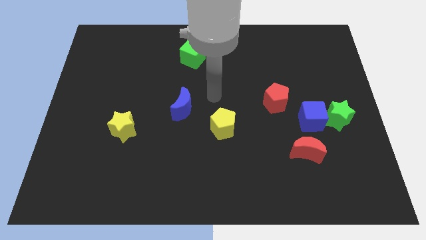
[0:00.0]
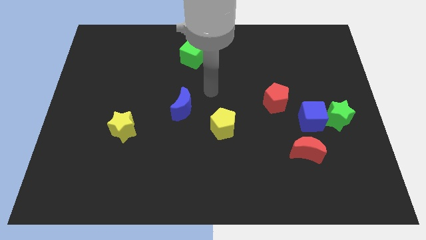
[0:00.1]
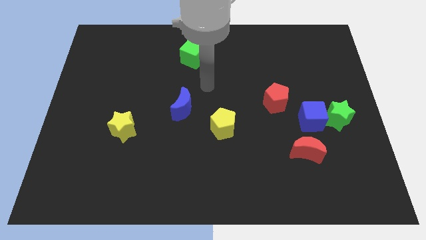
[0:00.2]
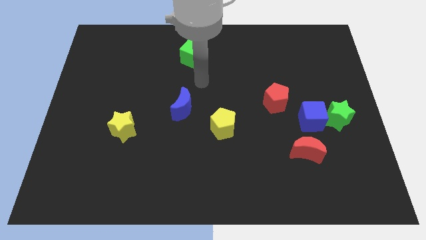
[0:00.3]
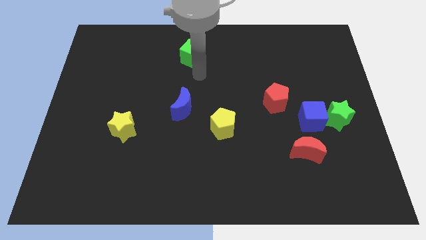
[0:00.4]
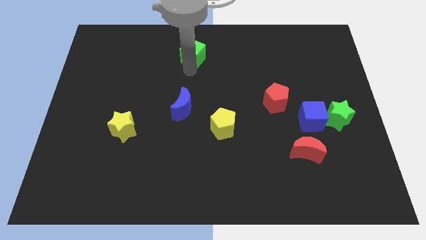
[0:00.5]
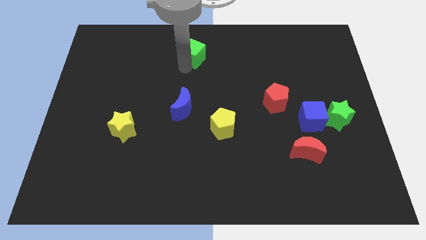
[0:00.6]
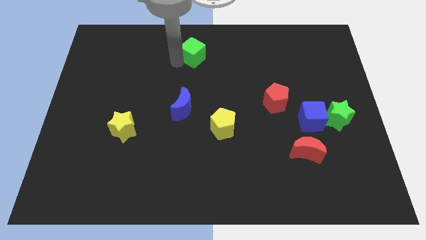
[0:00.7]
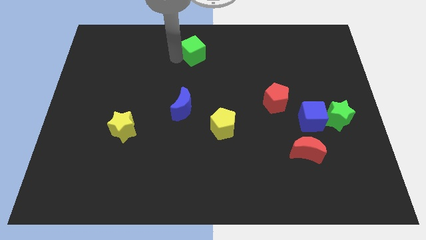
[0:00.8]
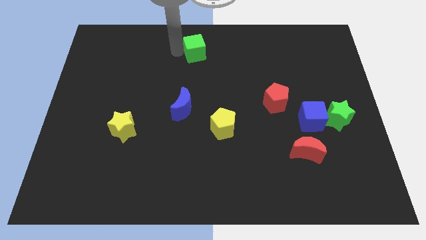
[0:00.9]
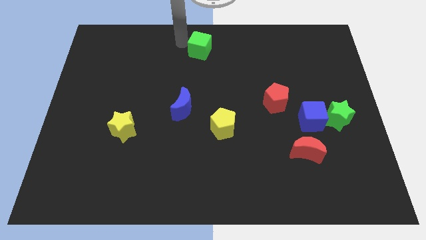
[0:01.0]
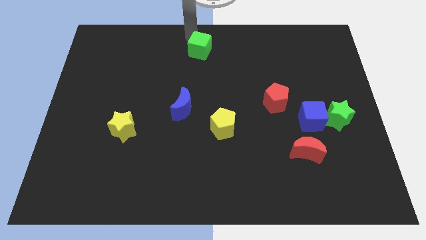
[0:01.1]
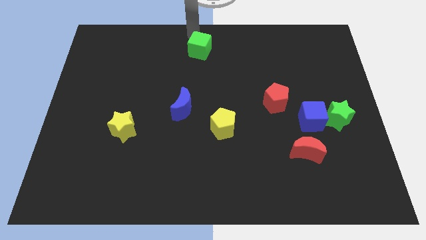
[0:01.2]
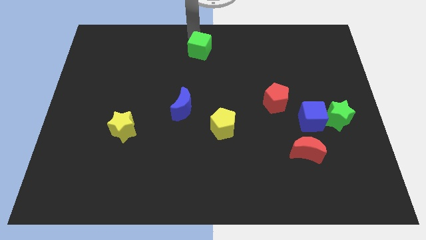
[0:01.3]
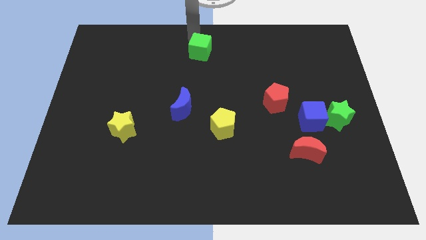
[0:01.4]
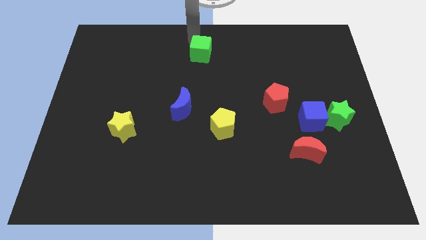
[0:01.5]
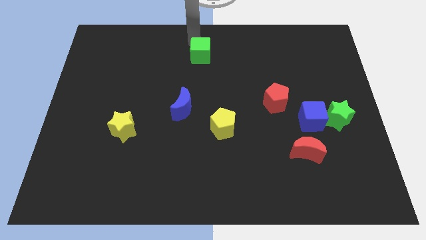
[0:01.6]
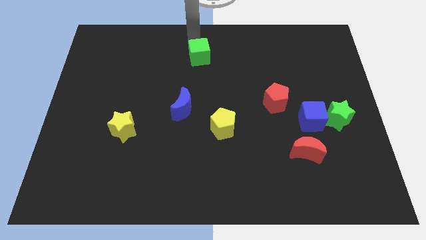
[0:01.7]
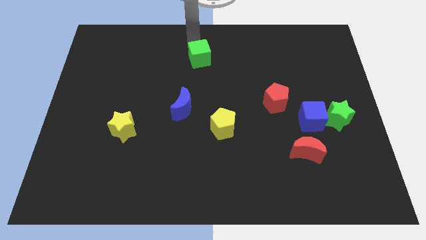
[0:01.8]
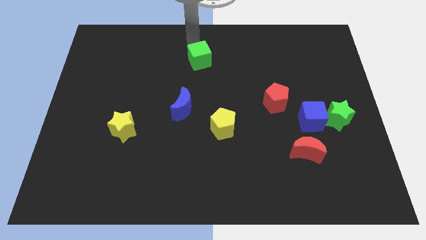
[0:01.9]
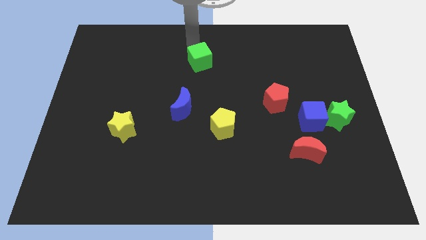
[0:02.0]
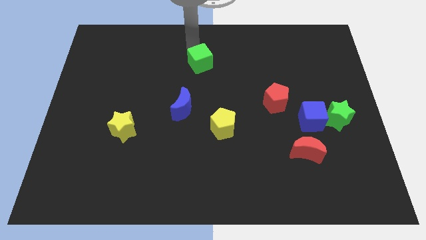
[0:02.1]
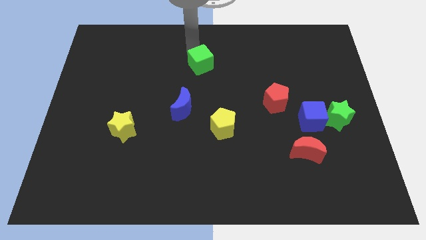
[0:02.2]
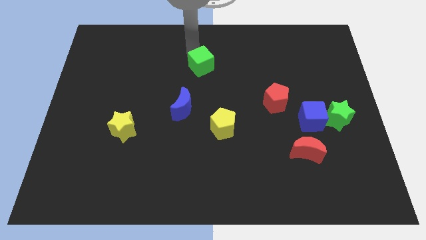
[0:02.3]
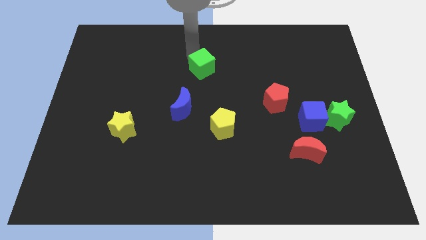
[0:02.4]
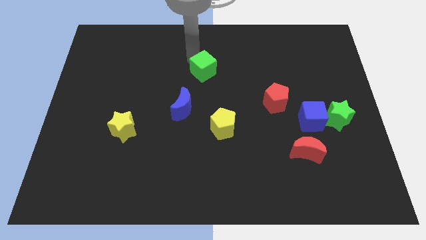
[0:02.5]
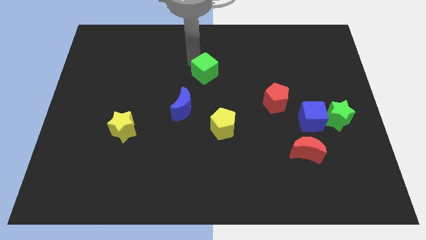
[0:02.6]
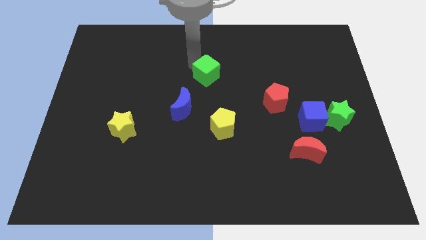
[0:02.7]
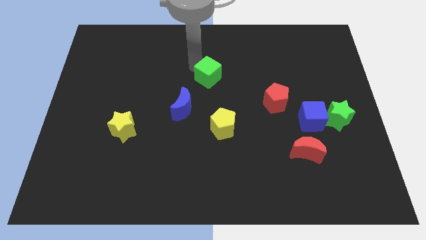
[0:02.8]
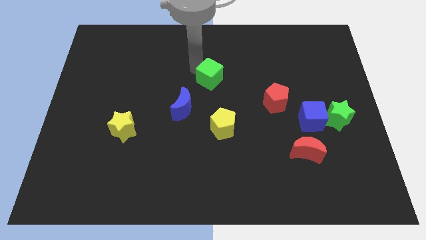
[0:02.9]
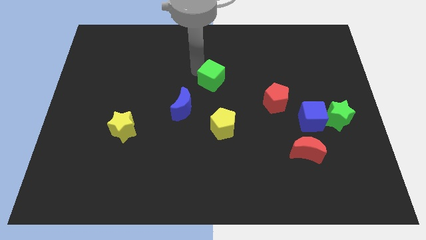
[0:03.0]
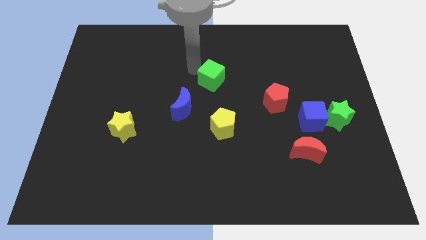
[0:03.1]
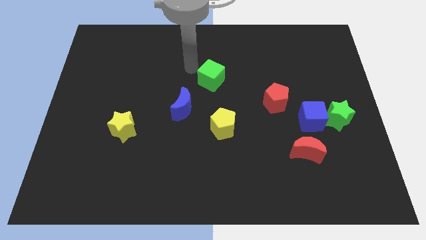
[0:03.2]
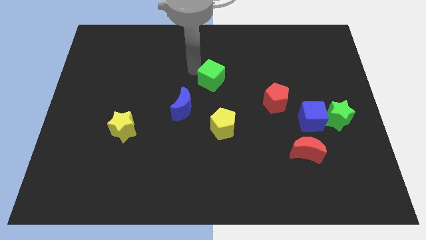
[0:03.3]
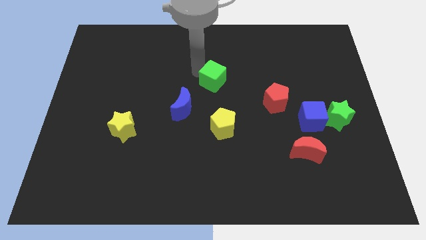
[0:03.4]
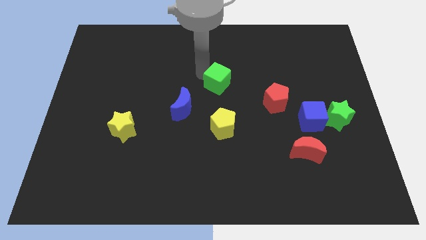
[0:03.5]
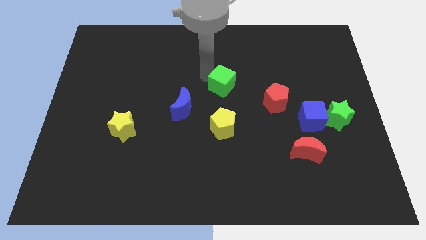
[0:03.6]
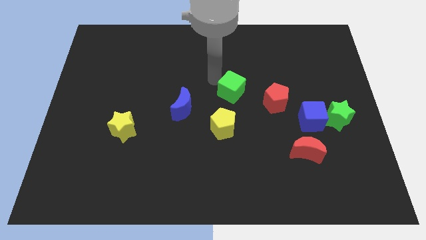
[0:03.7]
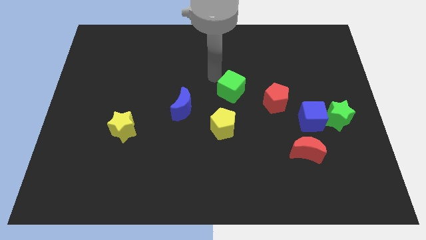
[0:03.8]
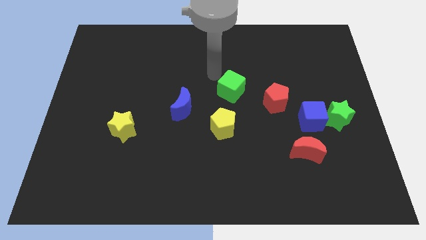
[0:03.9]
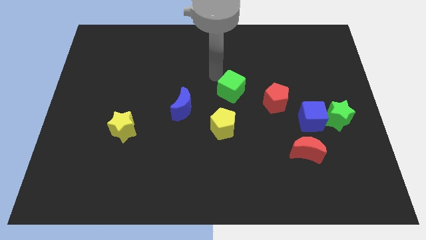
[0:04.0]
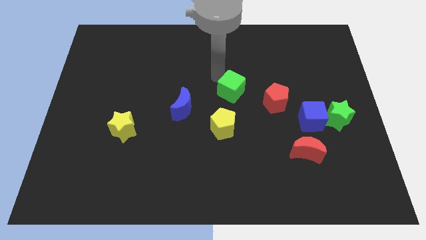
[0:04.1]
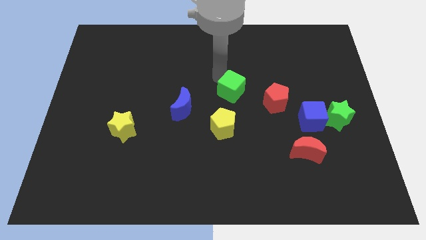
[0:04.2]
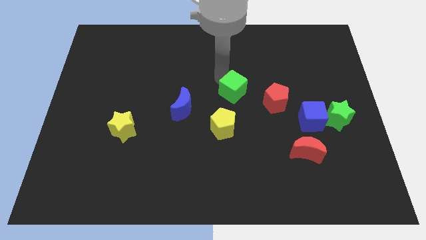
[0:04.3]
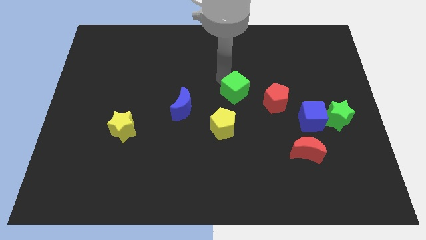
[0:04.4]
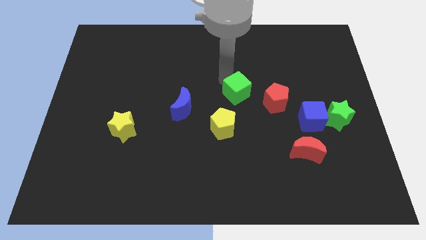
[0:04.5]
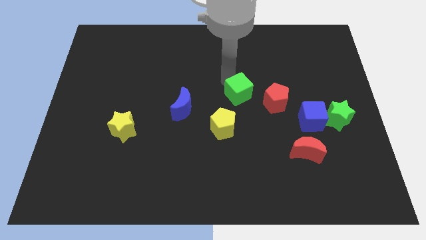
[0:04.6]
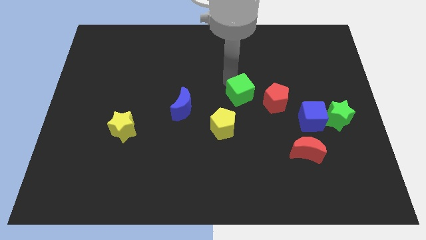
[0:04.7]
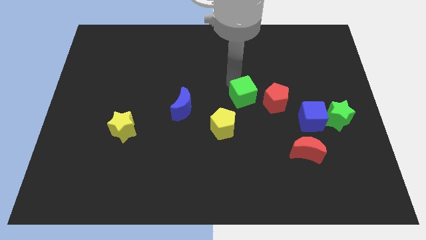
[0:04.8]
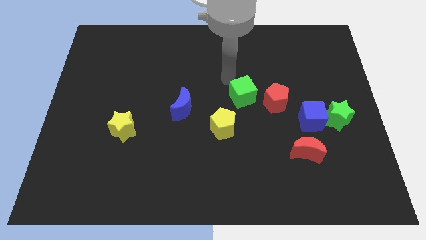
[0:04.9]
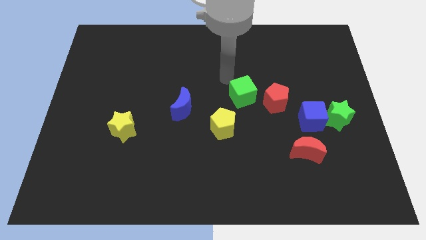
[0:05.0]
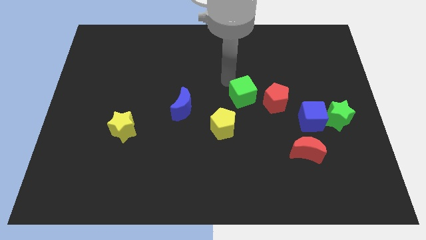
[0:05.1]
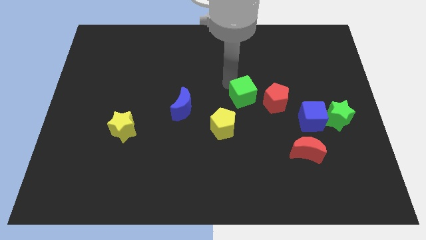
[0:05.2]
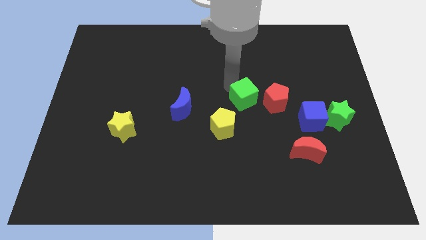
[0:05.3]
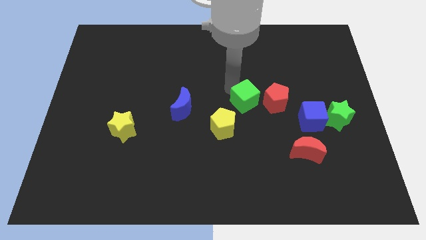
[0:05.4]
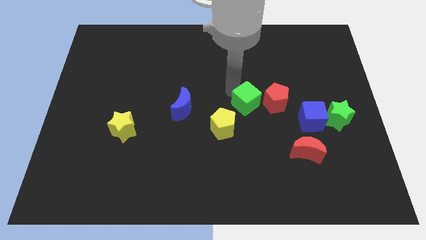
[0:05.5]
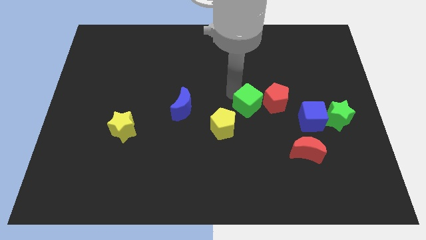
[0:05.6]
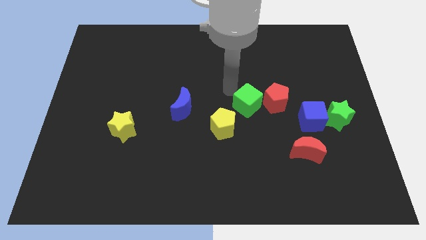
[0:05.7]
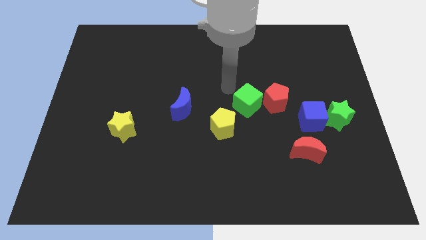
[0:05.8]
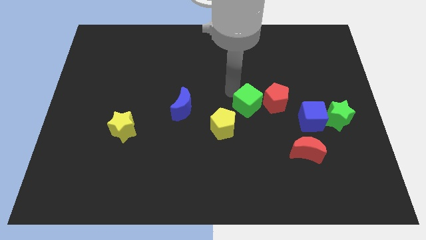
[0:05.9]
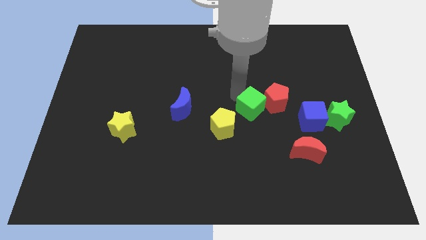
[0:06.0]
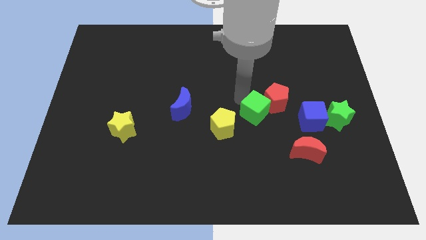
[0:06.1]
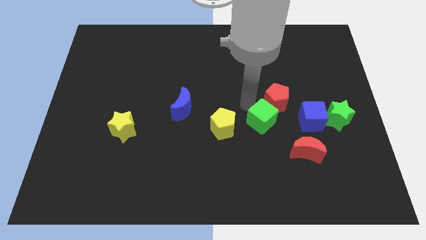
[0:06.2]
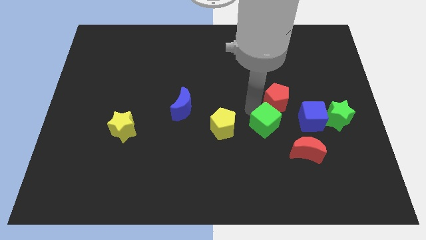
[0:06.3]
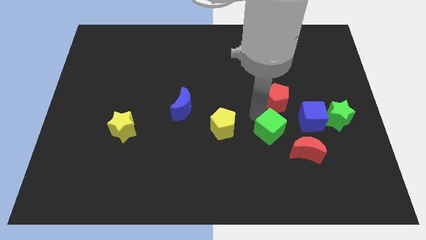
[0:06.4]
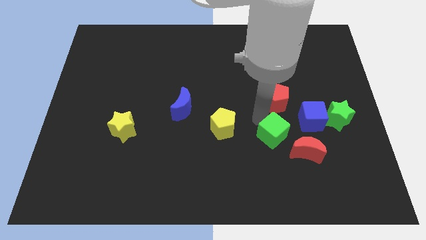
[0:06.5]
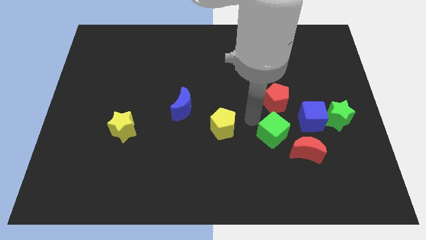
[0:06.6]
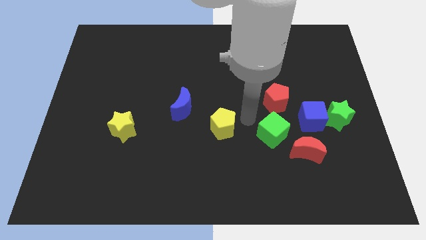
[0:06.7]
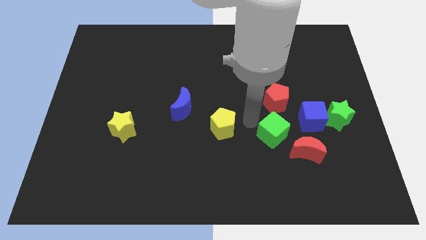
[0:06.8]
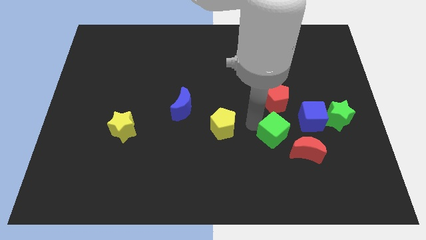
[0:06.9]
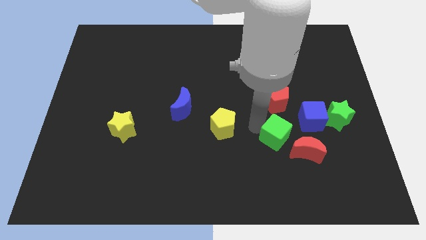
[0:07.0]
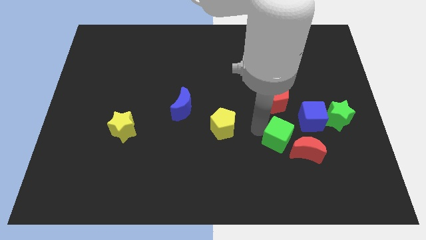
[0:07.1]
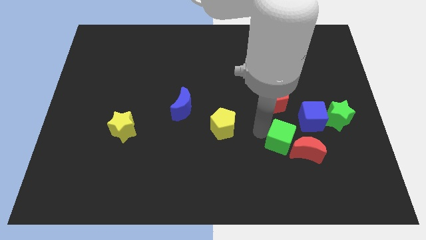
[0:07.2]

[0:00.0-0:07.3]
move the green cube next to the red moon
